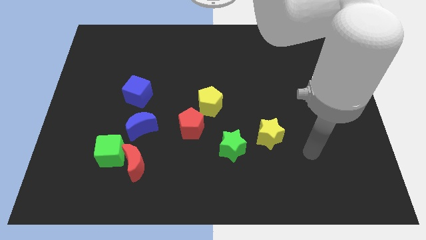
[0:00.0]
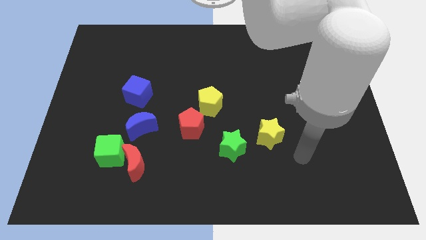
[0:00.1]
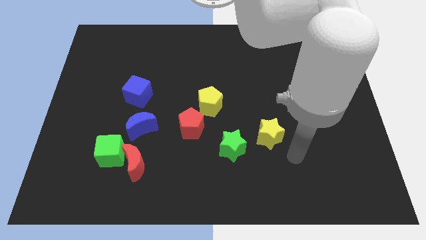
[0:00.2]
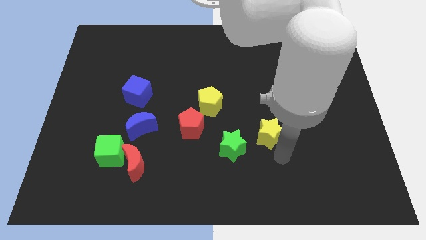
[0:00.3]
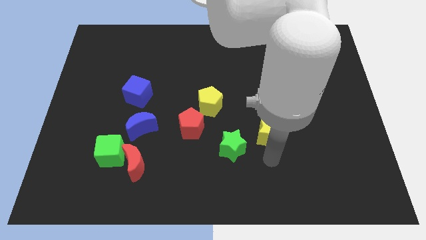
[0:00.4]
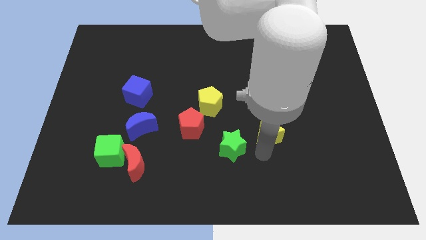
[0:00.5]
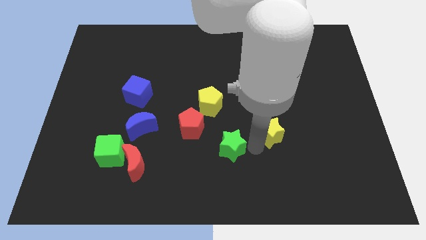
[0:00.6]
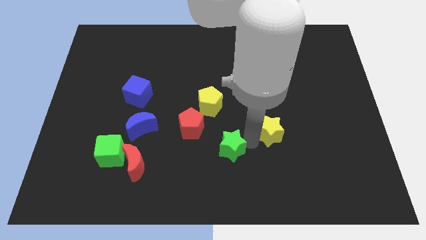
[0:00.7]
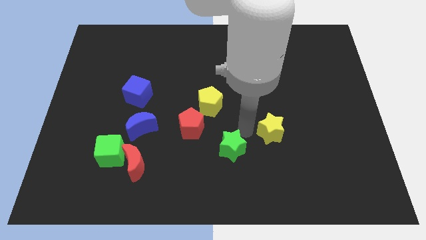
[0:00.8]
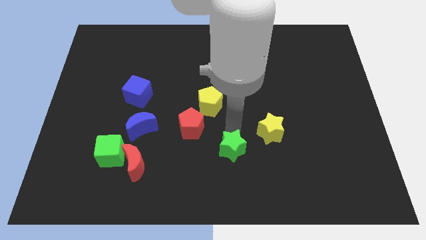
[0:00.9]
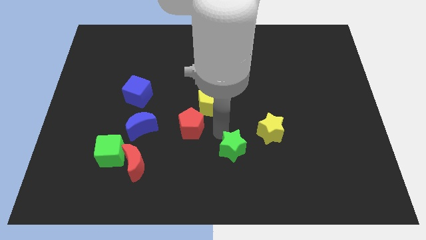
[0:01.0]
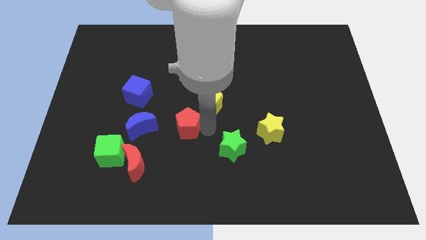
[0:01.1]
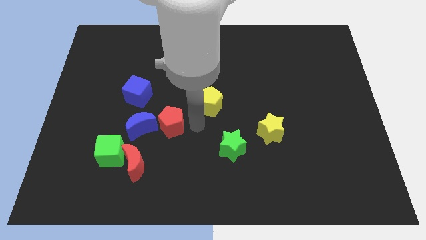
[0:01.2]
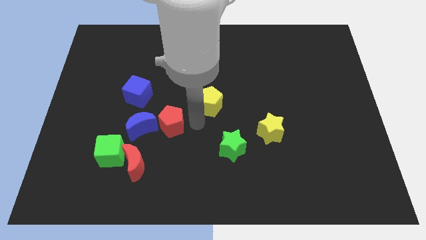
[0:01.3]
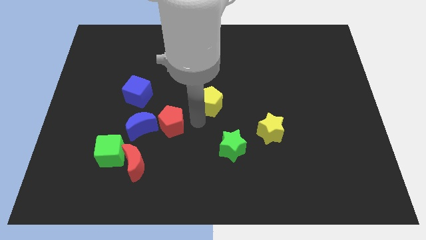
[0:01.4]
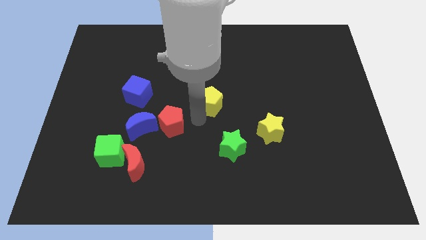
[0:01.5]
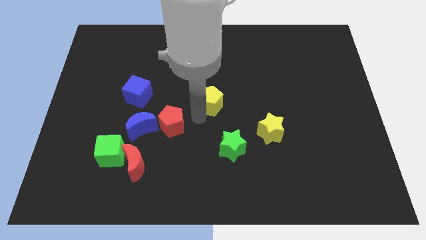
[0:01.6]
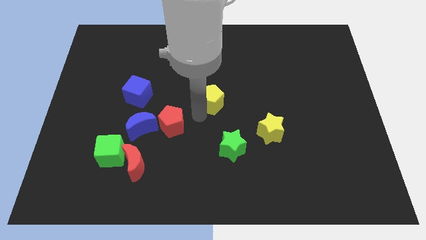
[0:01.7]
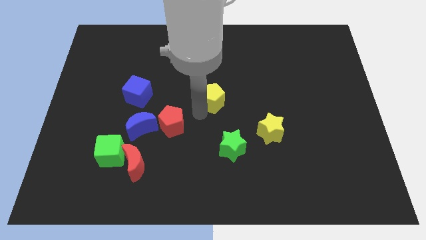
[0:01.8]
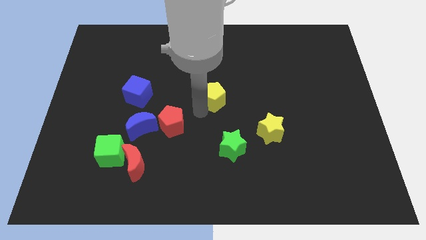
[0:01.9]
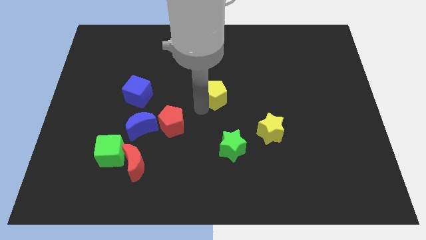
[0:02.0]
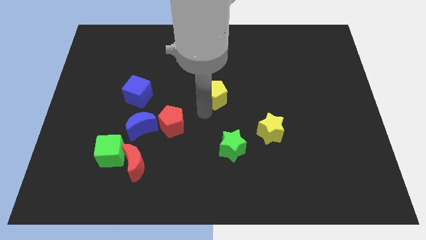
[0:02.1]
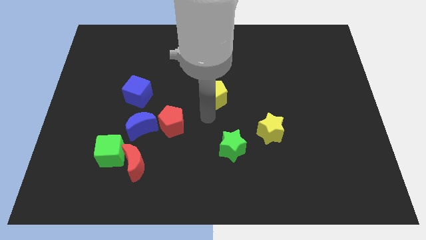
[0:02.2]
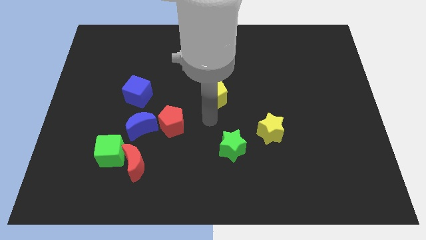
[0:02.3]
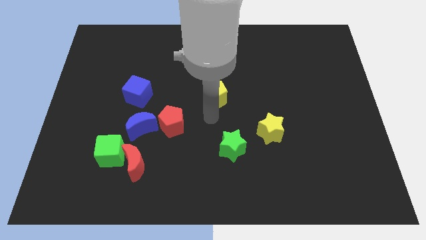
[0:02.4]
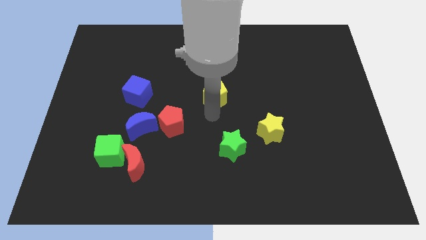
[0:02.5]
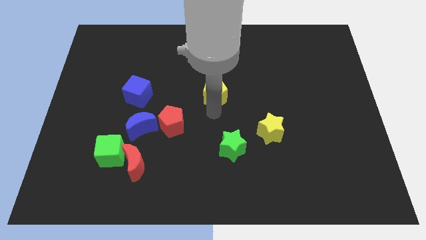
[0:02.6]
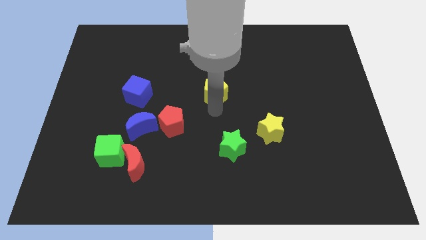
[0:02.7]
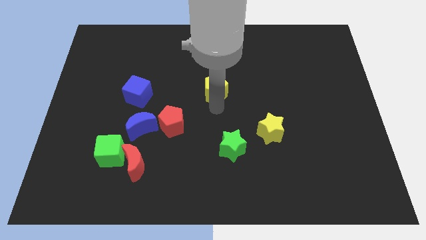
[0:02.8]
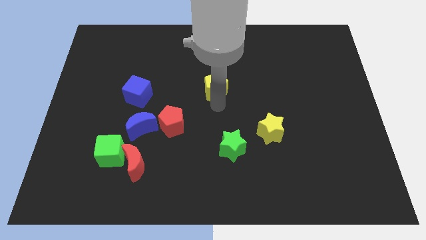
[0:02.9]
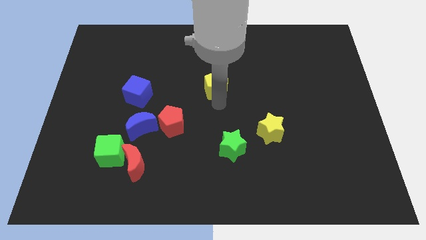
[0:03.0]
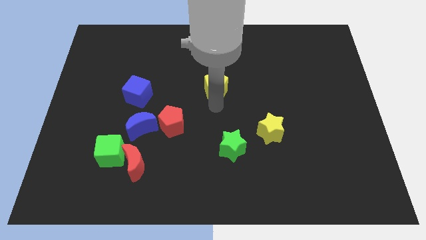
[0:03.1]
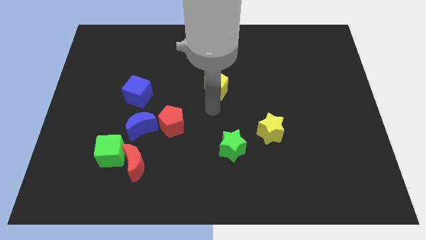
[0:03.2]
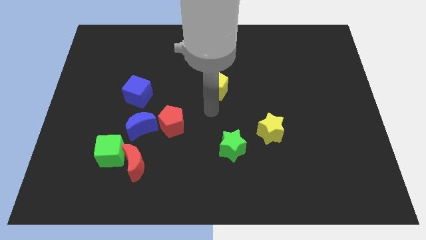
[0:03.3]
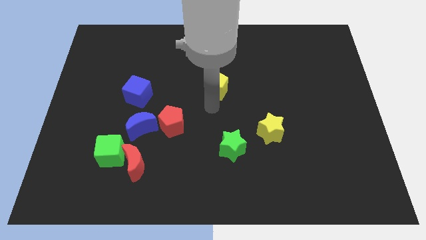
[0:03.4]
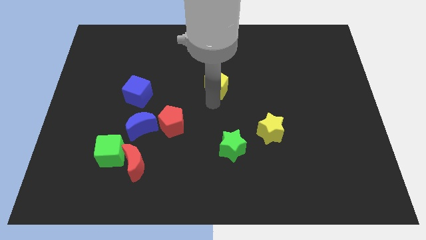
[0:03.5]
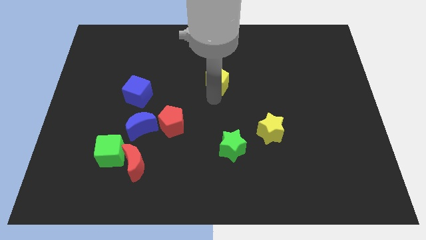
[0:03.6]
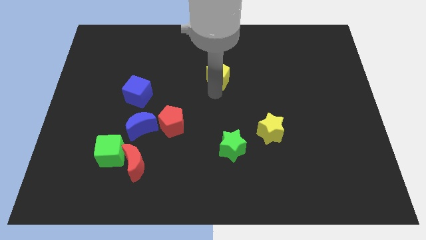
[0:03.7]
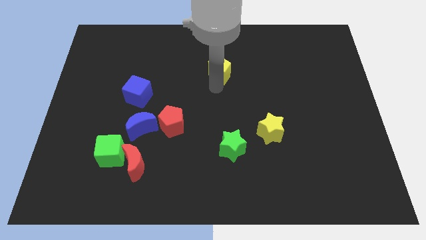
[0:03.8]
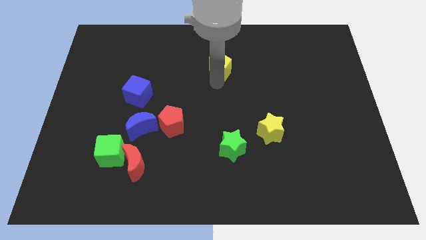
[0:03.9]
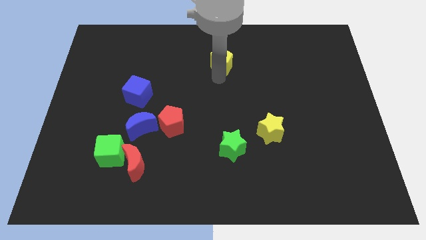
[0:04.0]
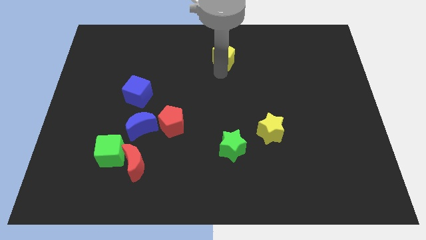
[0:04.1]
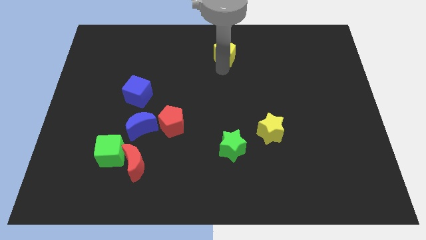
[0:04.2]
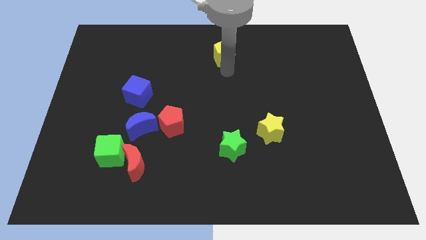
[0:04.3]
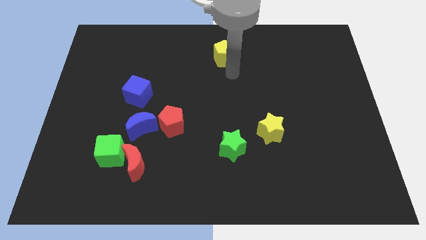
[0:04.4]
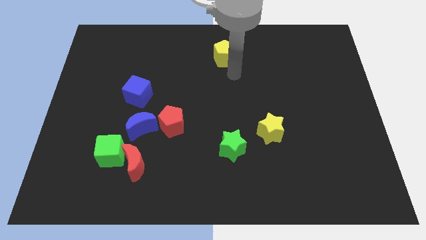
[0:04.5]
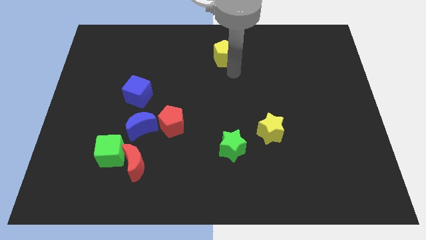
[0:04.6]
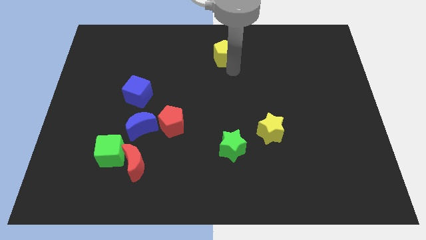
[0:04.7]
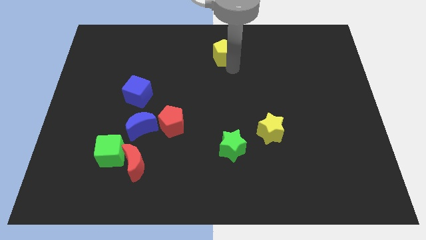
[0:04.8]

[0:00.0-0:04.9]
slide the yellow pentagon to the towards your base

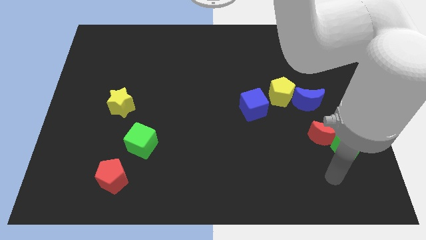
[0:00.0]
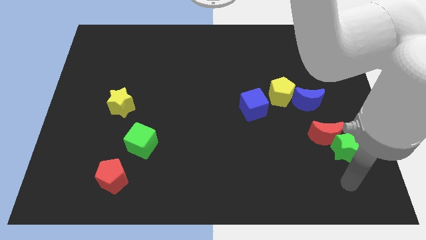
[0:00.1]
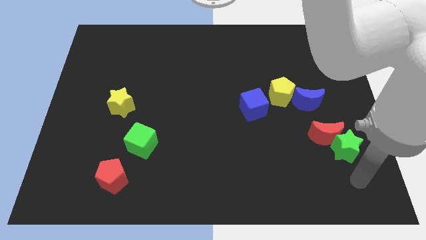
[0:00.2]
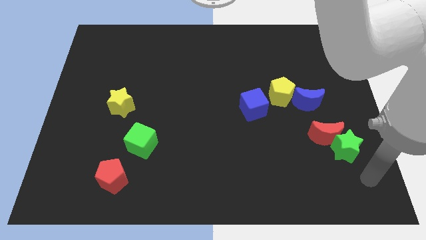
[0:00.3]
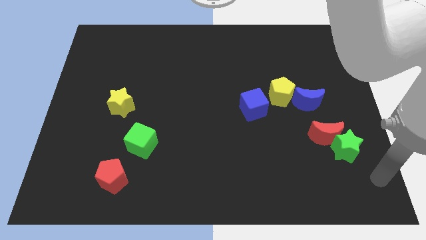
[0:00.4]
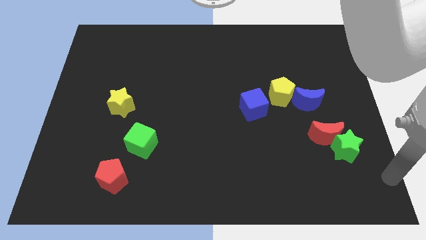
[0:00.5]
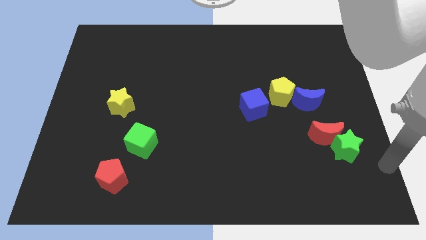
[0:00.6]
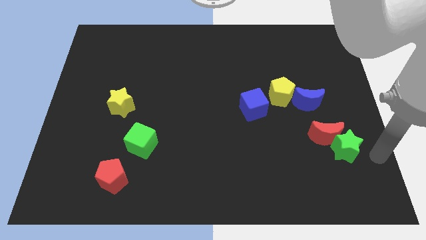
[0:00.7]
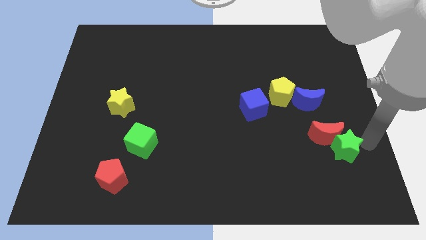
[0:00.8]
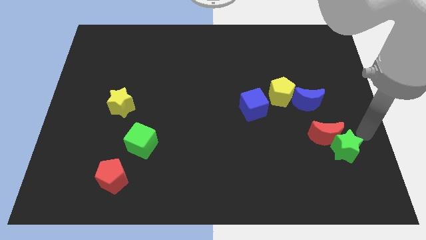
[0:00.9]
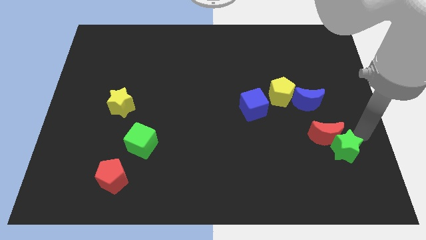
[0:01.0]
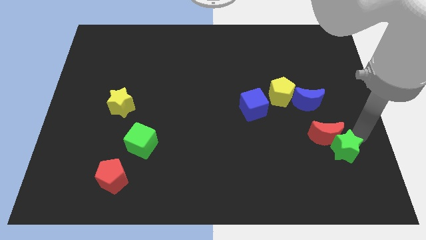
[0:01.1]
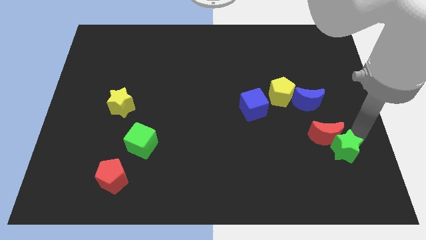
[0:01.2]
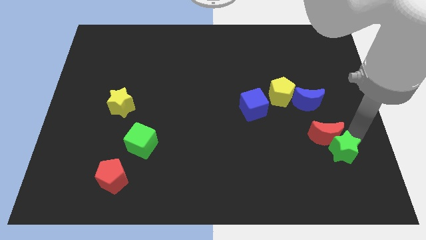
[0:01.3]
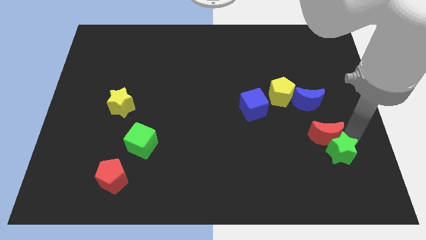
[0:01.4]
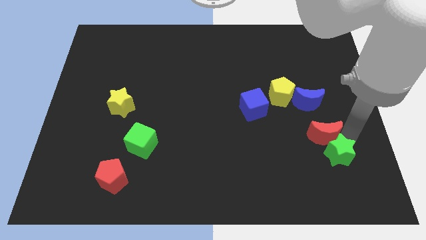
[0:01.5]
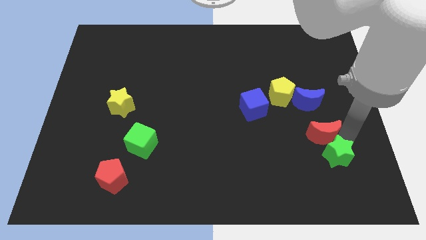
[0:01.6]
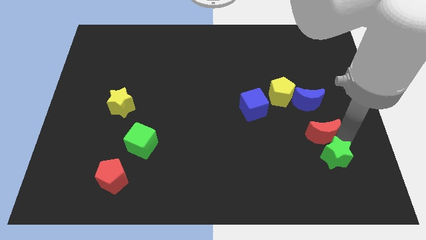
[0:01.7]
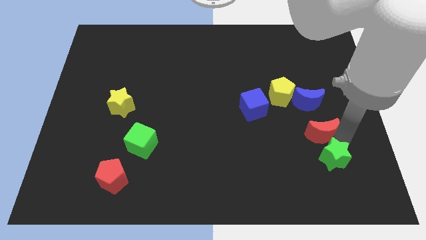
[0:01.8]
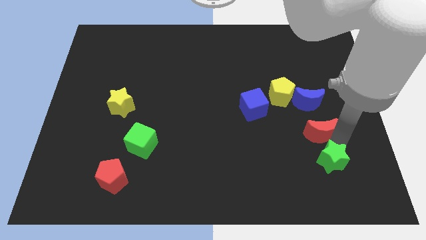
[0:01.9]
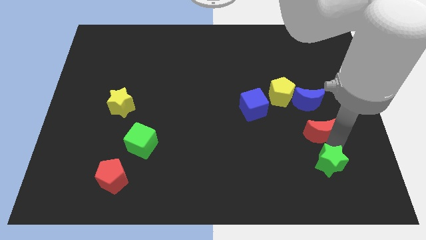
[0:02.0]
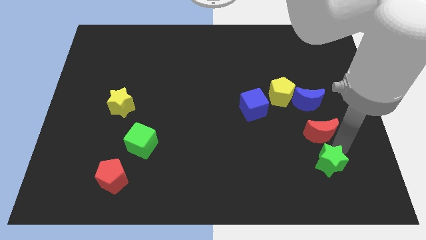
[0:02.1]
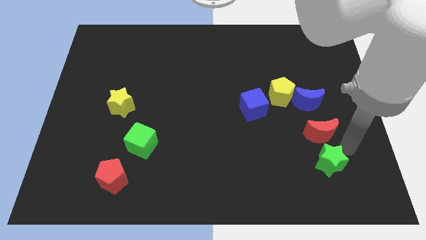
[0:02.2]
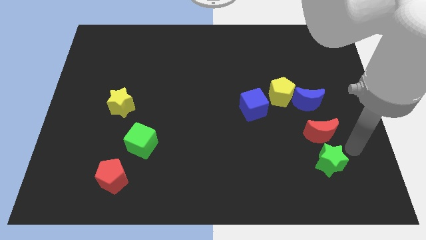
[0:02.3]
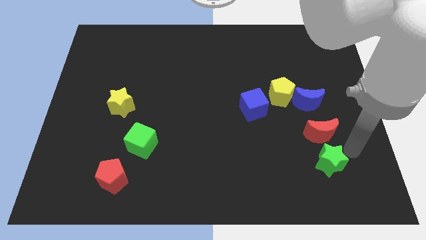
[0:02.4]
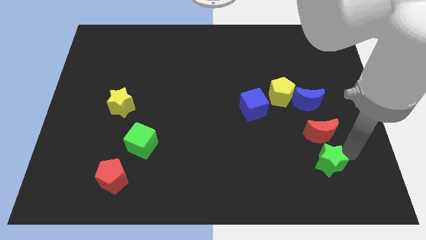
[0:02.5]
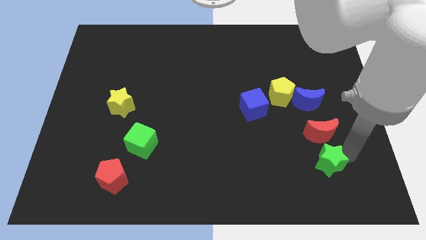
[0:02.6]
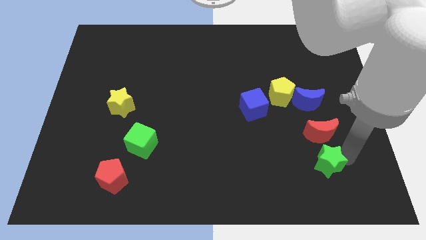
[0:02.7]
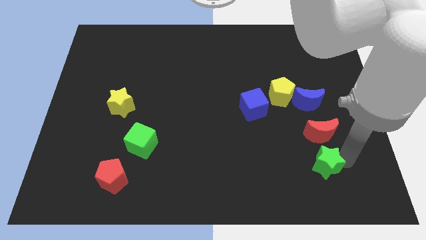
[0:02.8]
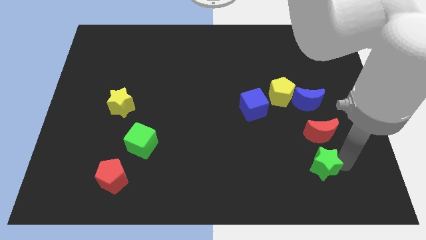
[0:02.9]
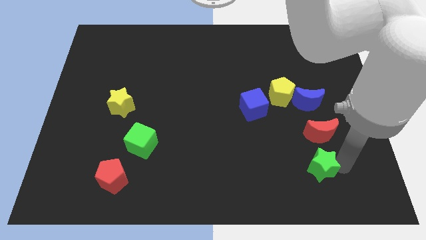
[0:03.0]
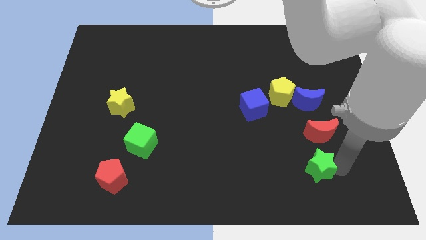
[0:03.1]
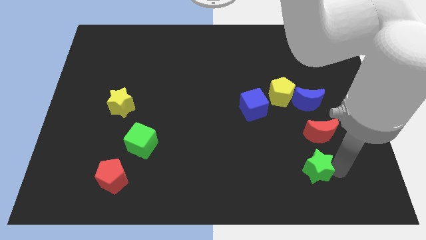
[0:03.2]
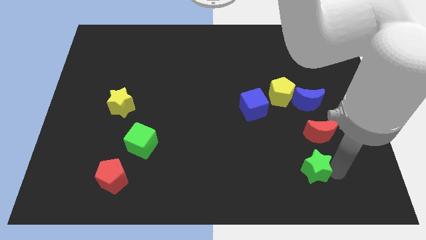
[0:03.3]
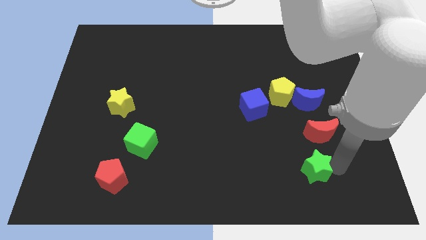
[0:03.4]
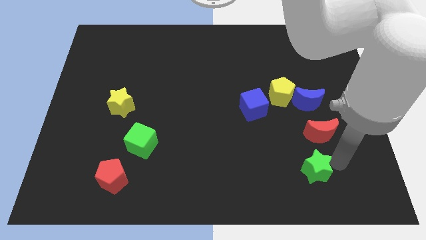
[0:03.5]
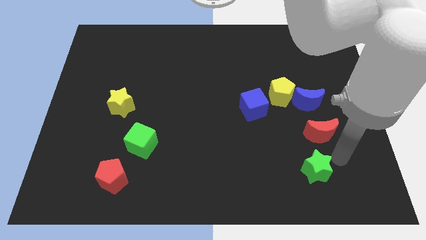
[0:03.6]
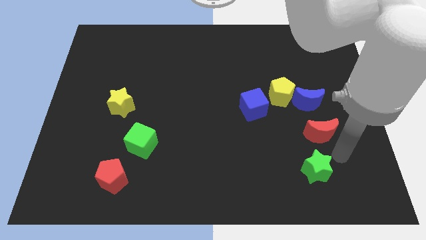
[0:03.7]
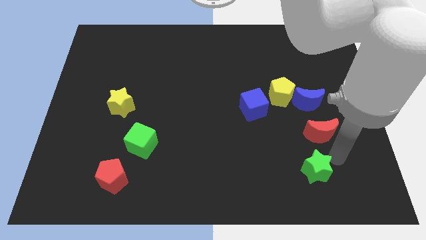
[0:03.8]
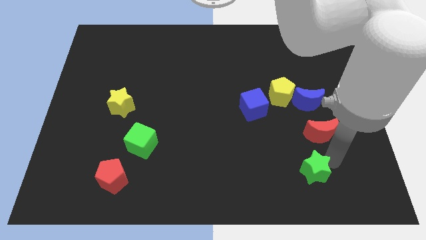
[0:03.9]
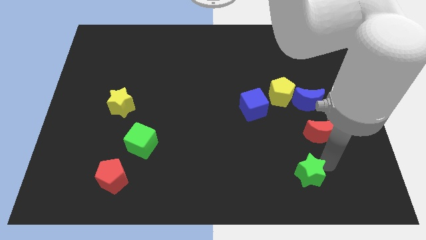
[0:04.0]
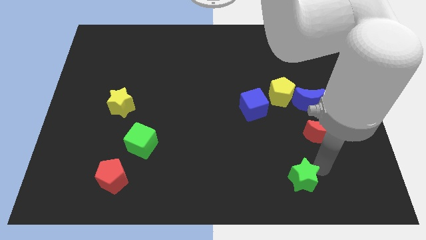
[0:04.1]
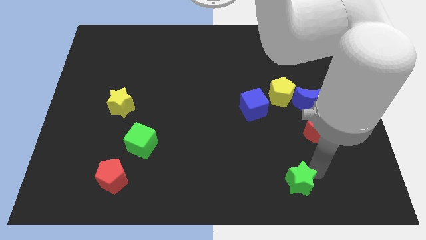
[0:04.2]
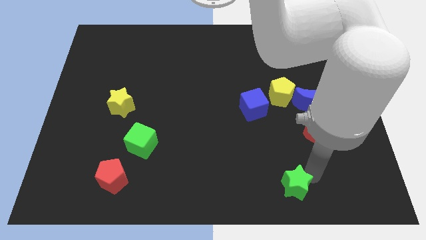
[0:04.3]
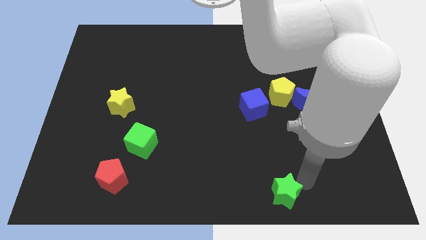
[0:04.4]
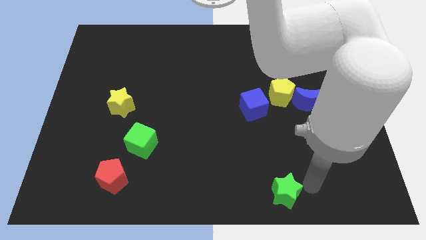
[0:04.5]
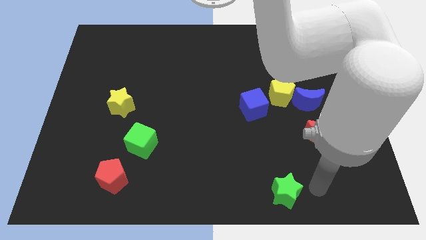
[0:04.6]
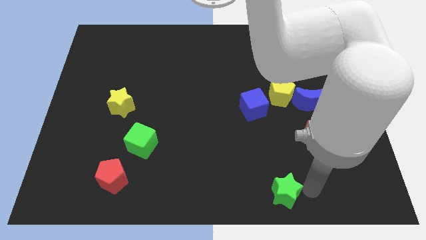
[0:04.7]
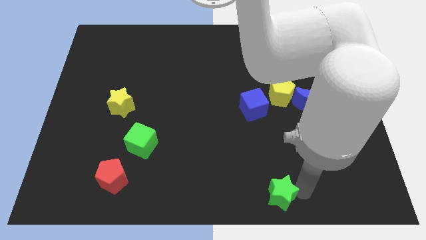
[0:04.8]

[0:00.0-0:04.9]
push the green star to the bottom side
